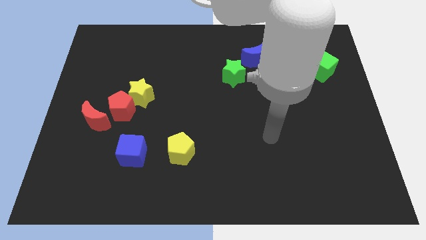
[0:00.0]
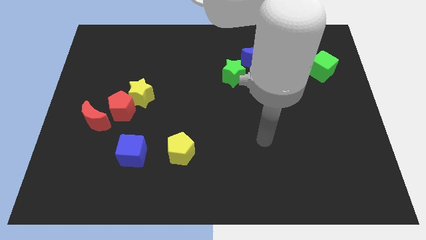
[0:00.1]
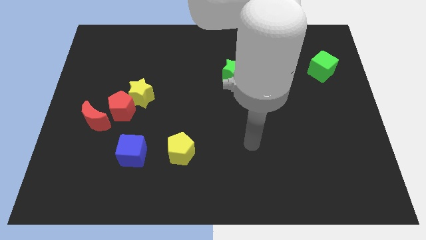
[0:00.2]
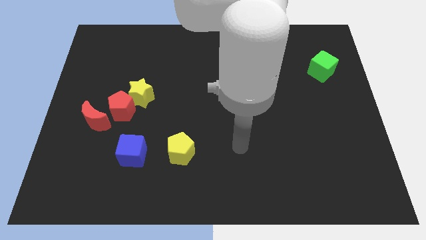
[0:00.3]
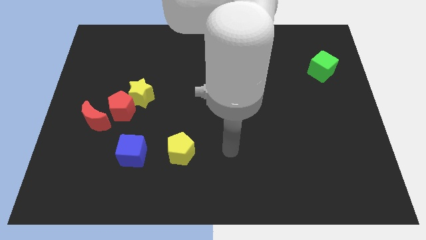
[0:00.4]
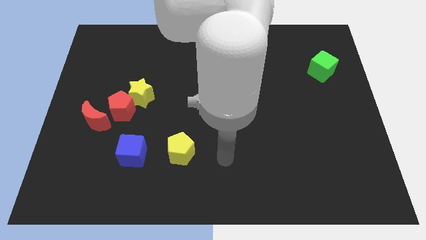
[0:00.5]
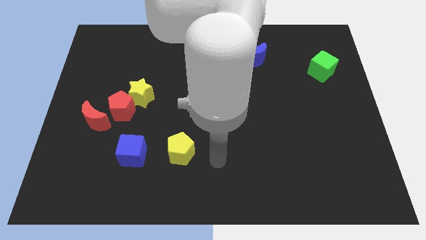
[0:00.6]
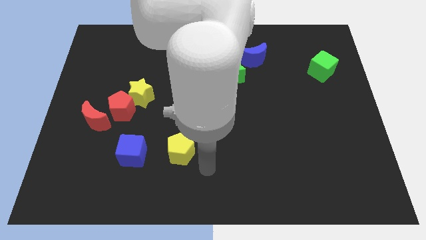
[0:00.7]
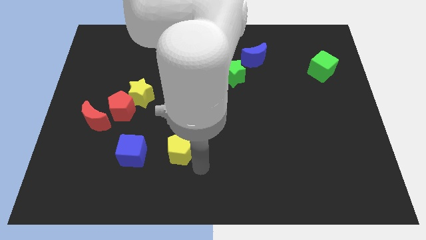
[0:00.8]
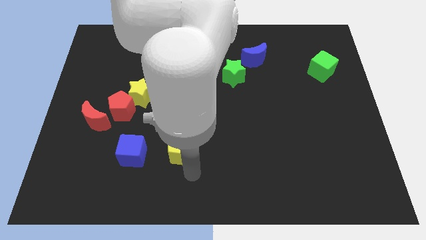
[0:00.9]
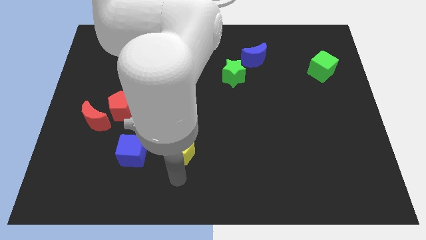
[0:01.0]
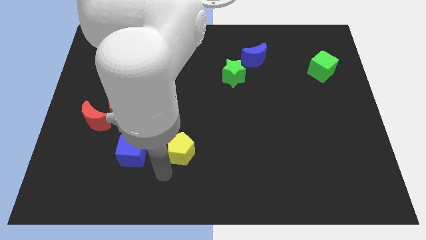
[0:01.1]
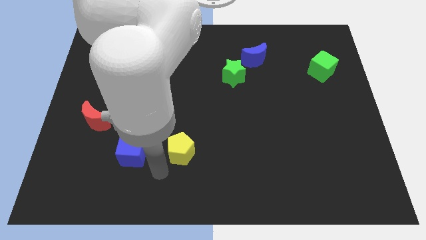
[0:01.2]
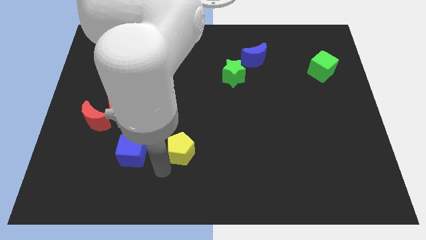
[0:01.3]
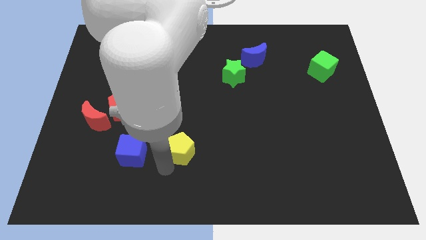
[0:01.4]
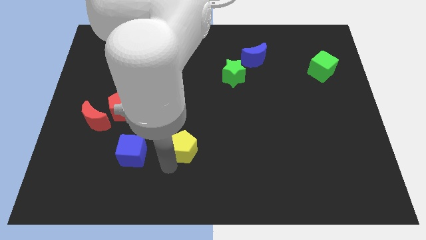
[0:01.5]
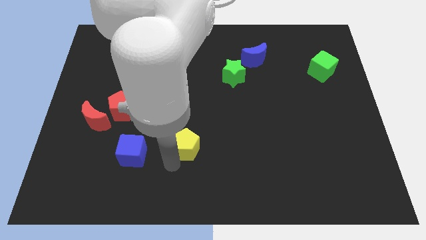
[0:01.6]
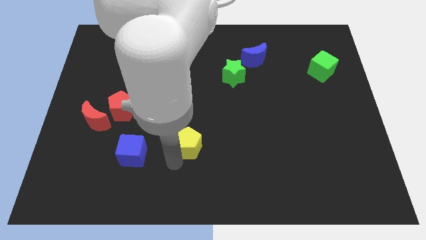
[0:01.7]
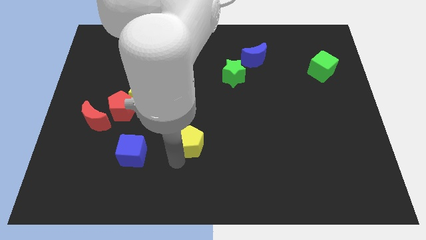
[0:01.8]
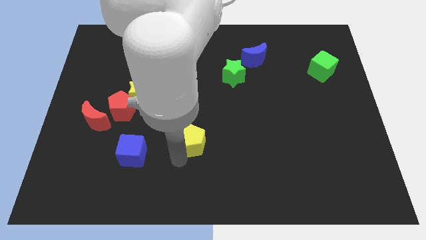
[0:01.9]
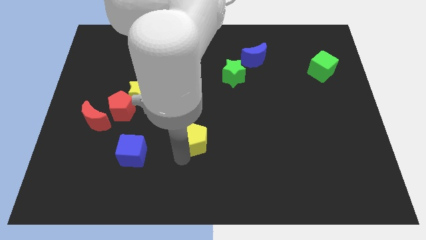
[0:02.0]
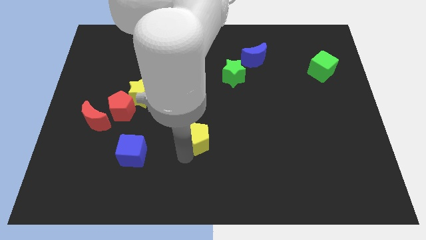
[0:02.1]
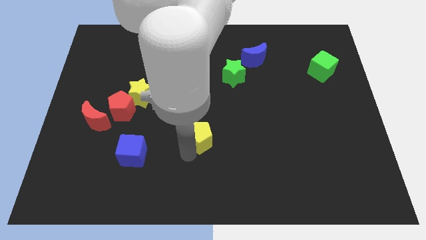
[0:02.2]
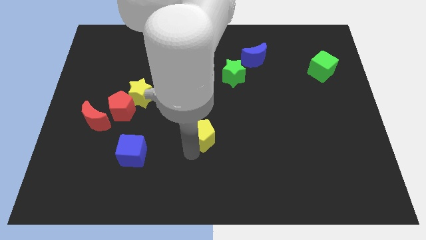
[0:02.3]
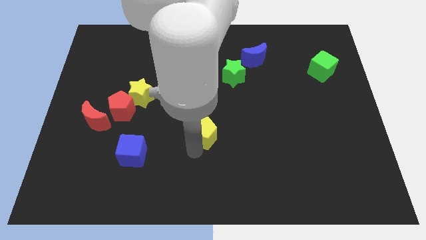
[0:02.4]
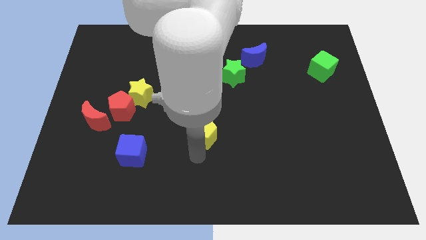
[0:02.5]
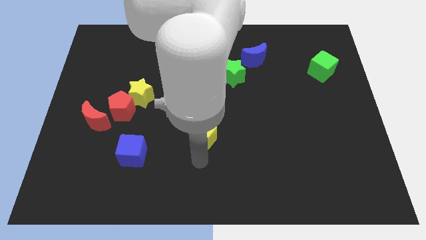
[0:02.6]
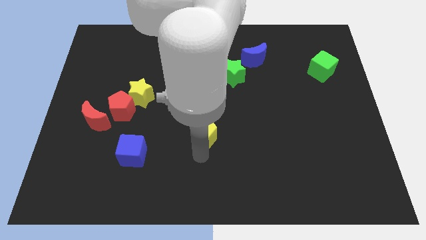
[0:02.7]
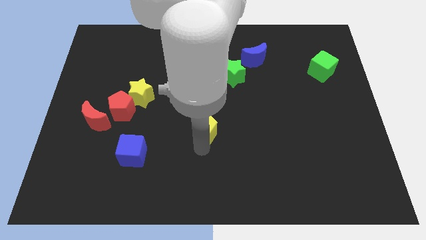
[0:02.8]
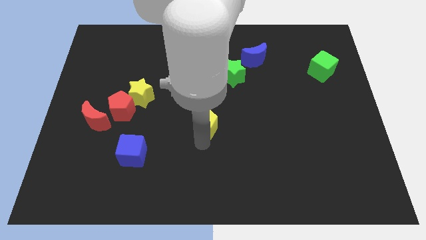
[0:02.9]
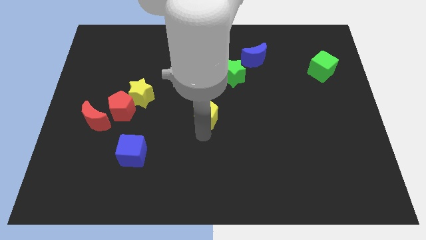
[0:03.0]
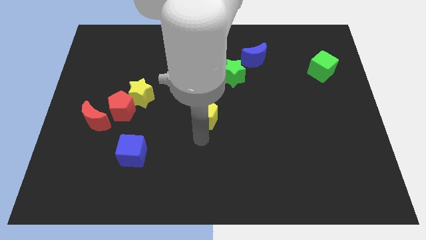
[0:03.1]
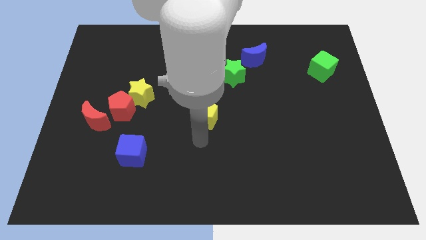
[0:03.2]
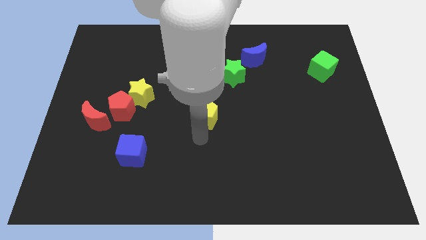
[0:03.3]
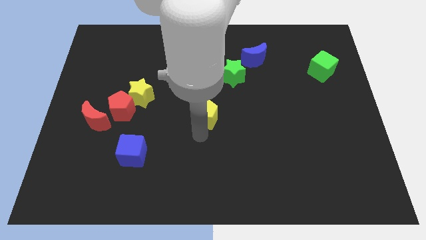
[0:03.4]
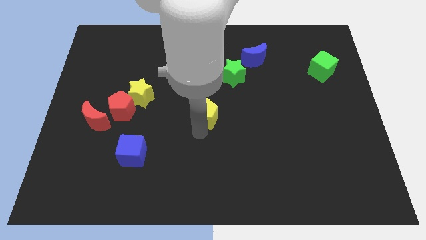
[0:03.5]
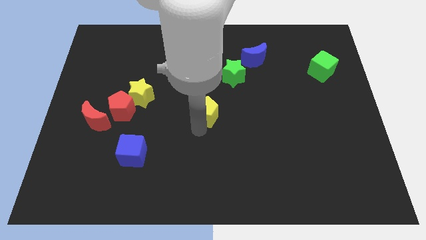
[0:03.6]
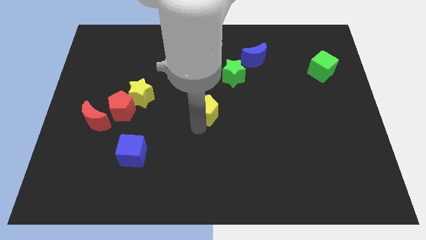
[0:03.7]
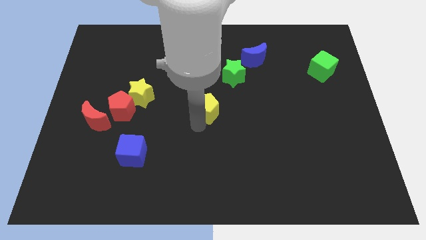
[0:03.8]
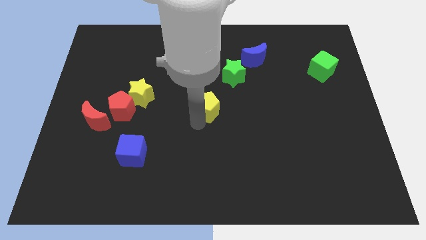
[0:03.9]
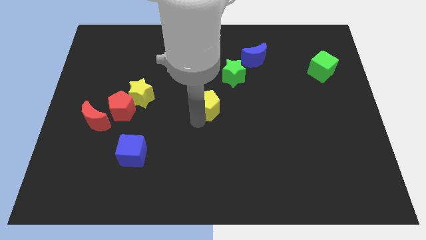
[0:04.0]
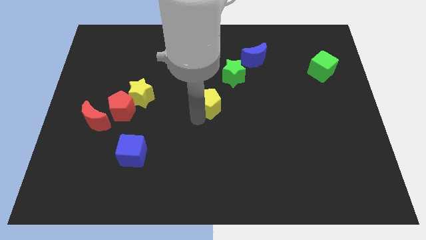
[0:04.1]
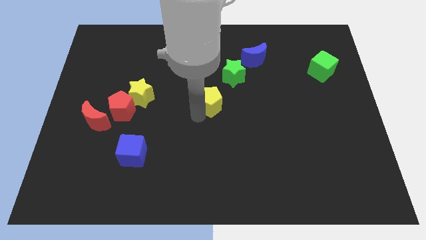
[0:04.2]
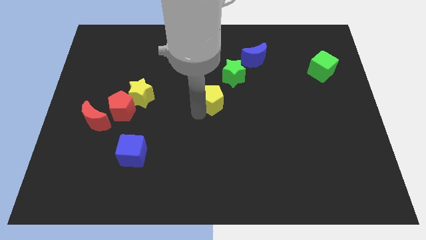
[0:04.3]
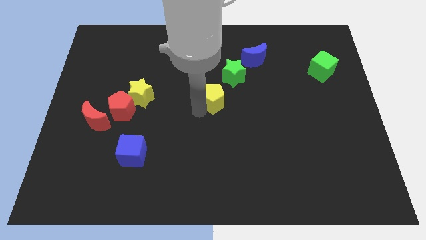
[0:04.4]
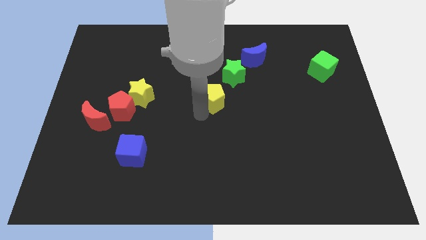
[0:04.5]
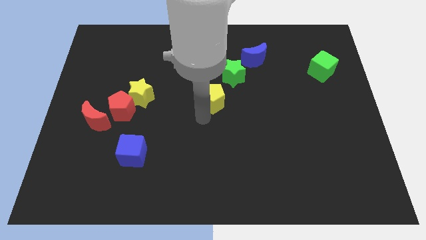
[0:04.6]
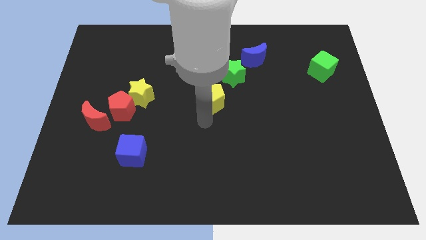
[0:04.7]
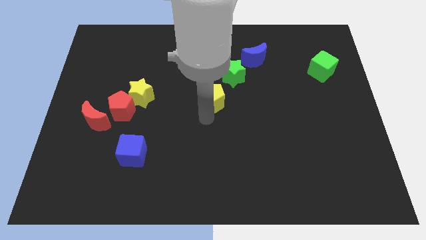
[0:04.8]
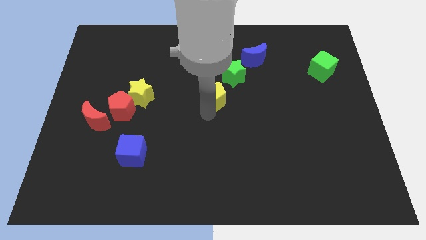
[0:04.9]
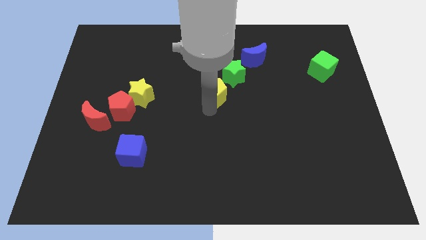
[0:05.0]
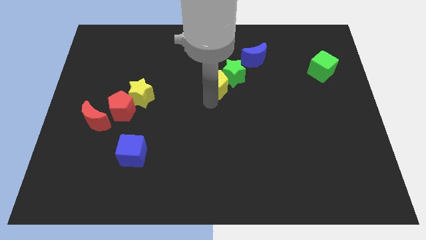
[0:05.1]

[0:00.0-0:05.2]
move the yellow pentagon next to the green star
